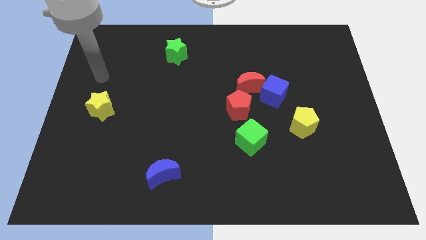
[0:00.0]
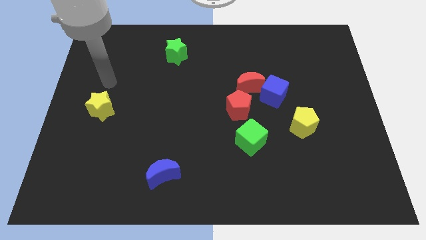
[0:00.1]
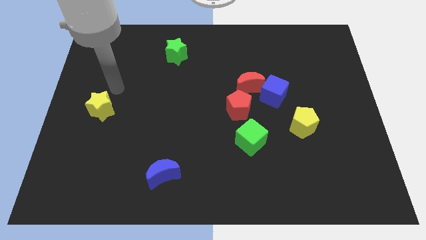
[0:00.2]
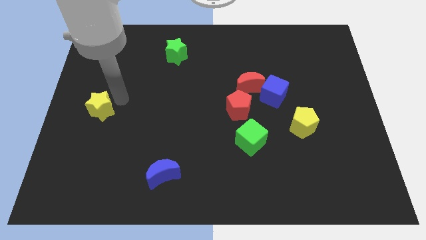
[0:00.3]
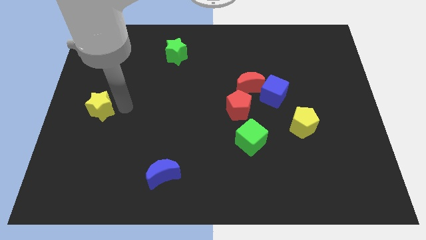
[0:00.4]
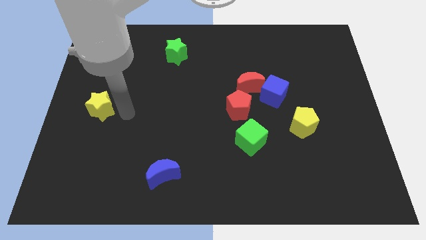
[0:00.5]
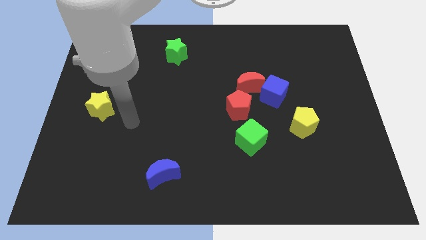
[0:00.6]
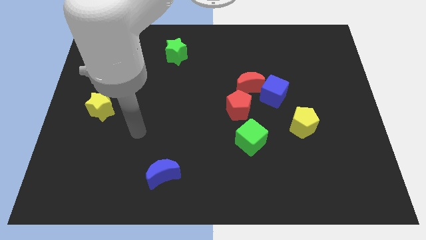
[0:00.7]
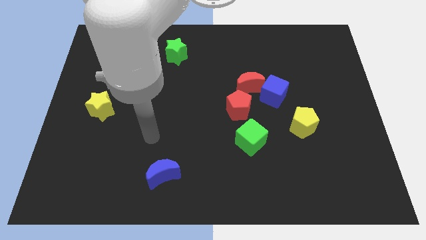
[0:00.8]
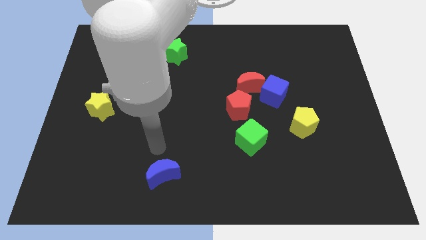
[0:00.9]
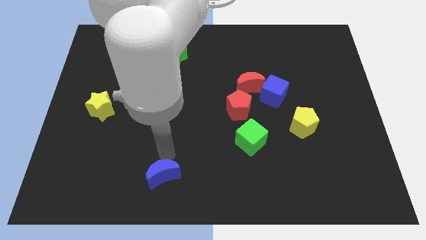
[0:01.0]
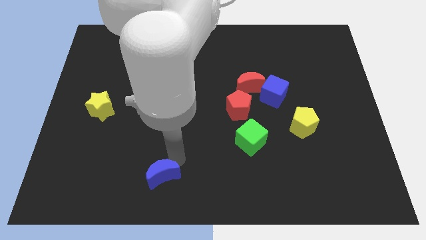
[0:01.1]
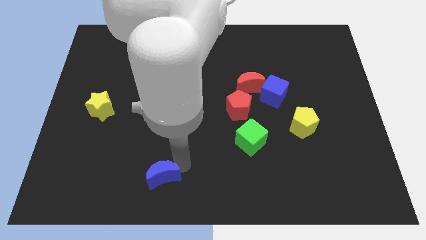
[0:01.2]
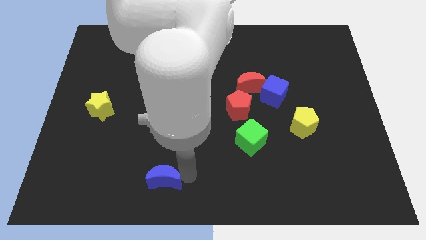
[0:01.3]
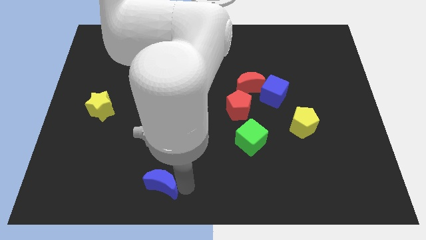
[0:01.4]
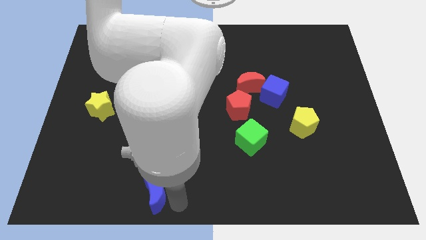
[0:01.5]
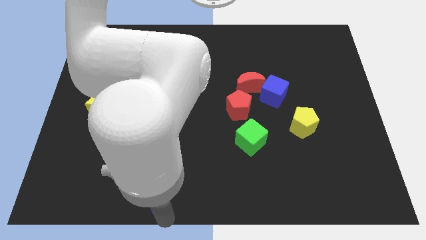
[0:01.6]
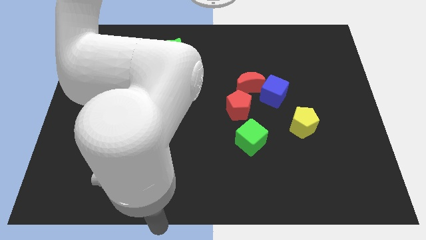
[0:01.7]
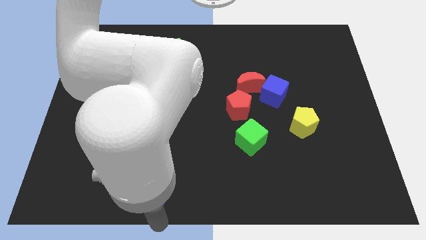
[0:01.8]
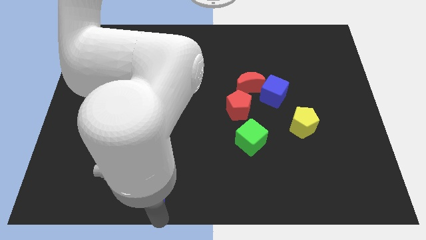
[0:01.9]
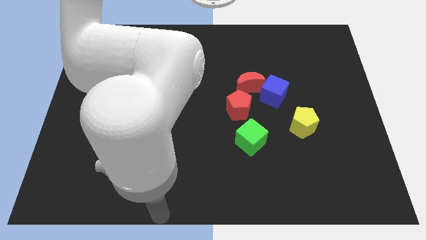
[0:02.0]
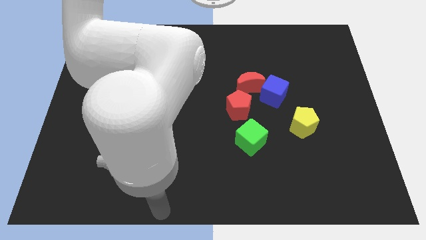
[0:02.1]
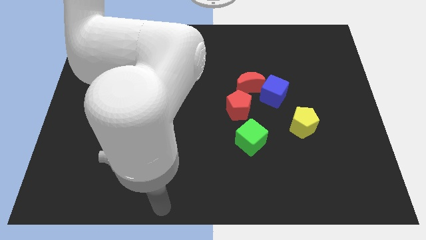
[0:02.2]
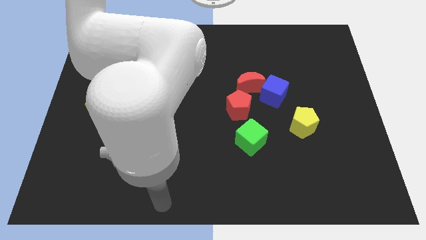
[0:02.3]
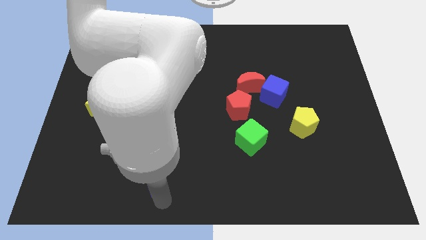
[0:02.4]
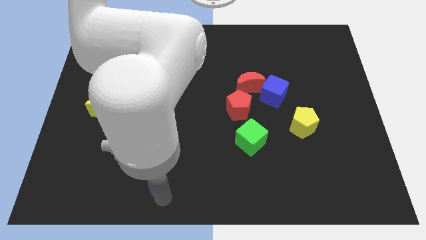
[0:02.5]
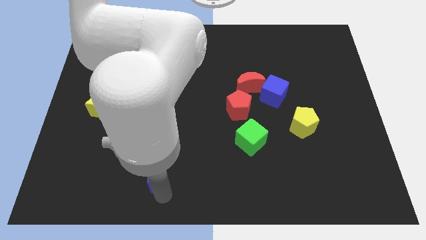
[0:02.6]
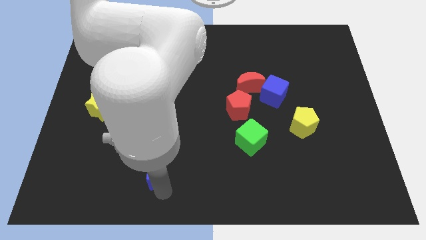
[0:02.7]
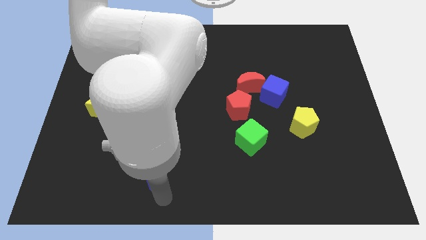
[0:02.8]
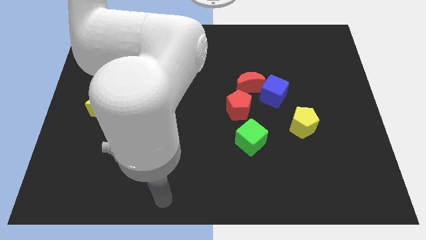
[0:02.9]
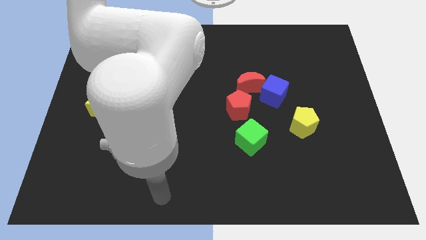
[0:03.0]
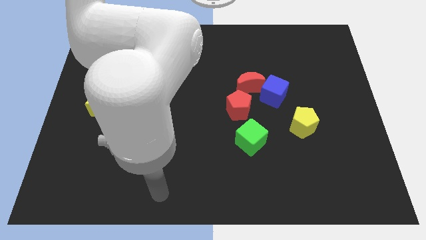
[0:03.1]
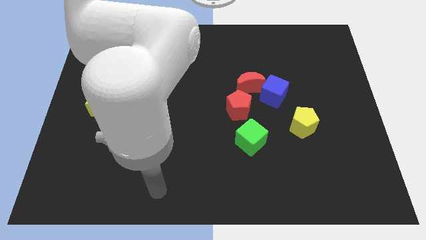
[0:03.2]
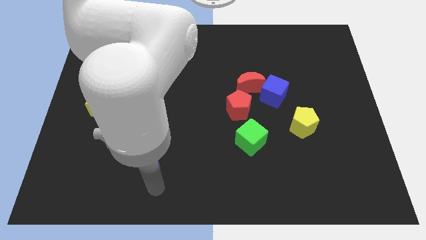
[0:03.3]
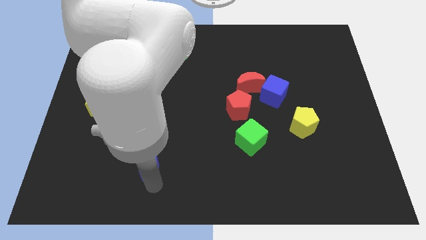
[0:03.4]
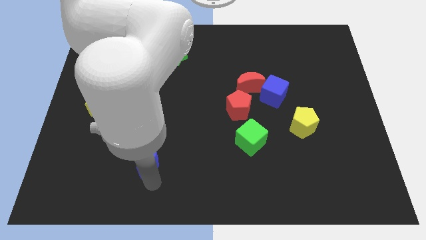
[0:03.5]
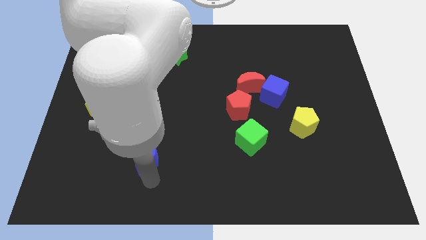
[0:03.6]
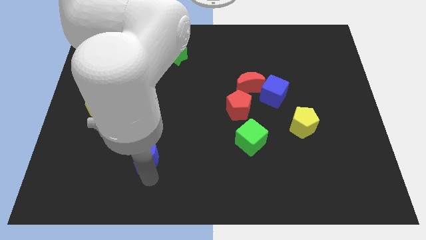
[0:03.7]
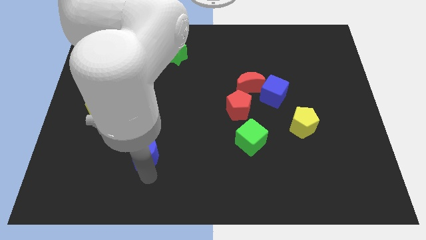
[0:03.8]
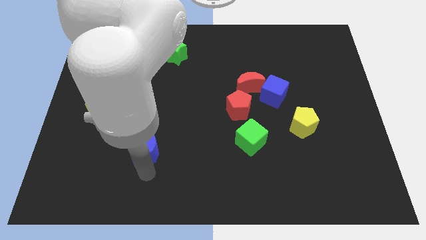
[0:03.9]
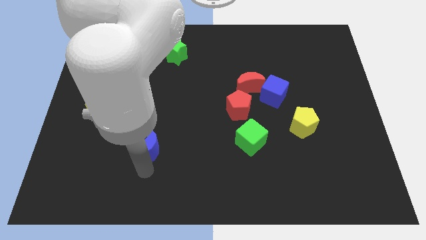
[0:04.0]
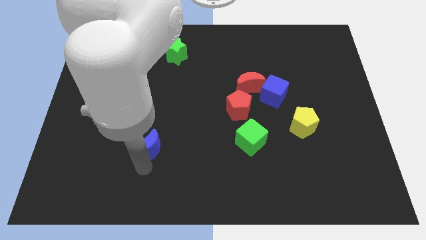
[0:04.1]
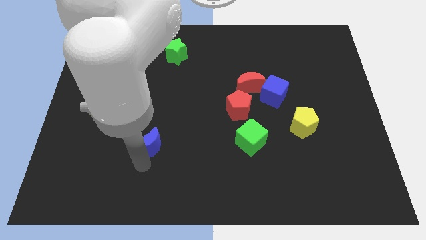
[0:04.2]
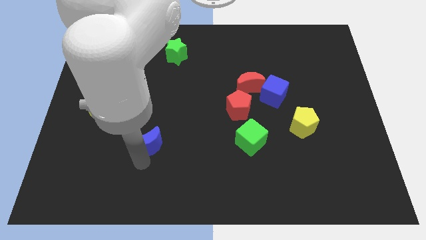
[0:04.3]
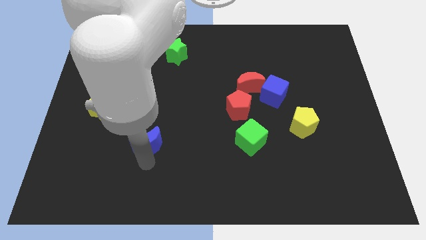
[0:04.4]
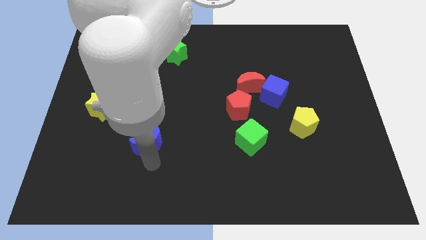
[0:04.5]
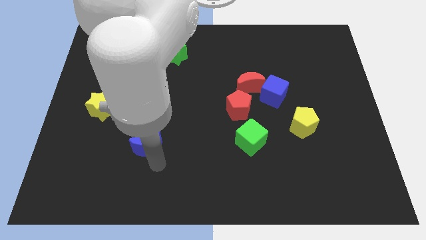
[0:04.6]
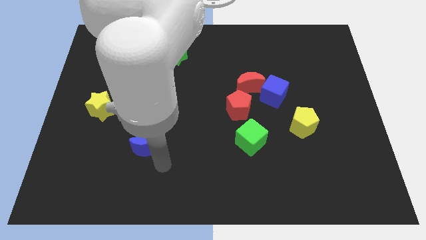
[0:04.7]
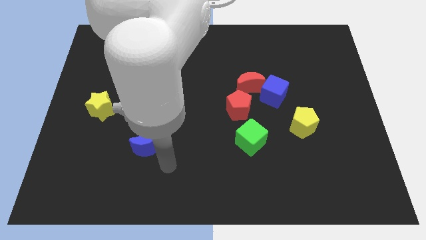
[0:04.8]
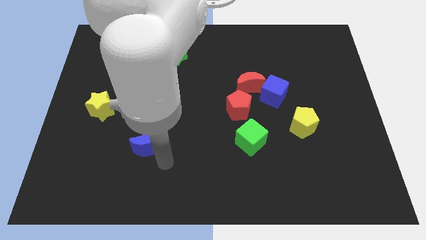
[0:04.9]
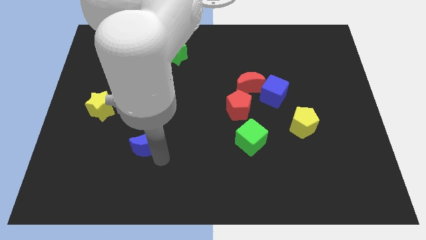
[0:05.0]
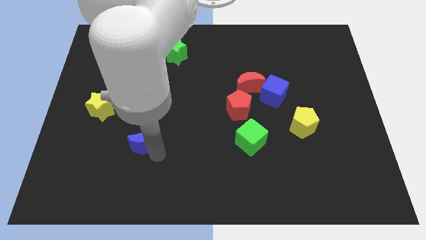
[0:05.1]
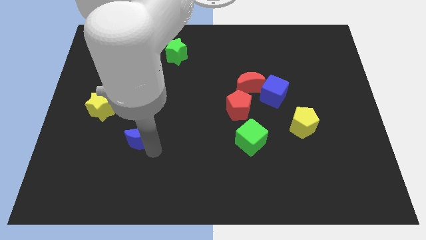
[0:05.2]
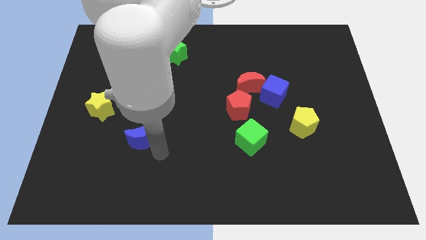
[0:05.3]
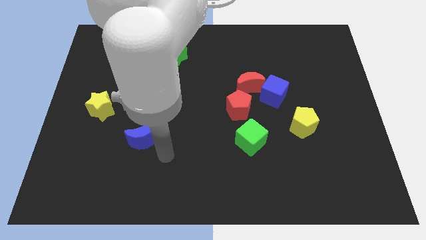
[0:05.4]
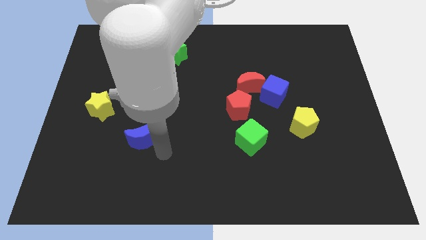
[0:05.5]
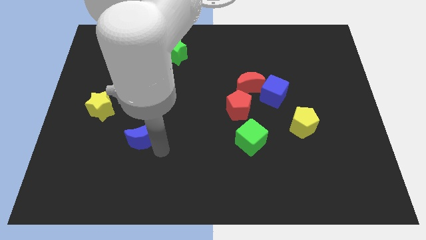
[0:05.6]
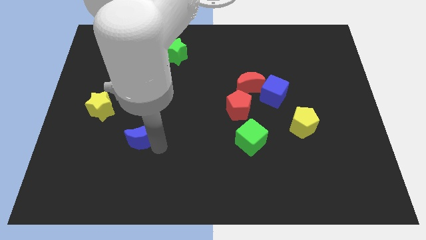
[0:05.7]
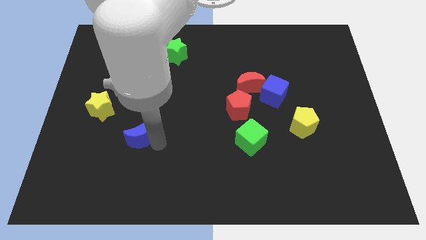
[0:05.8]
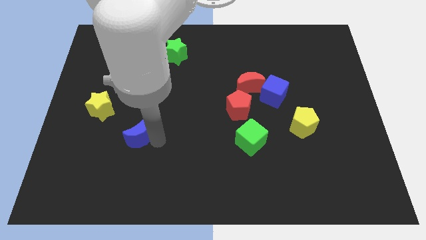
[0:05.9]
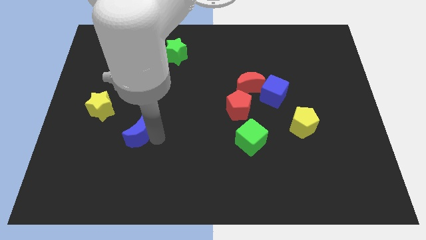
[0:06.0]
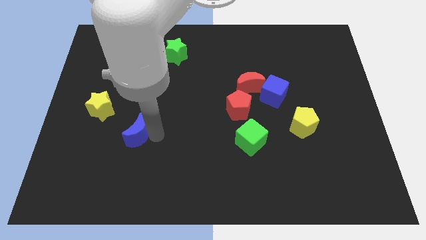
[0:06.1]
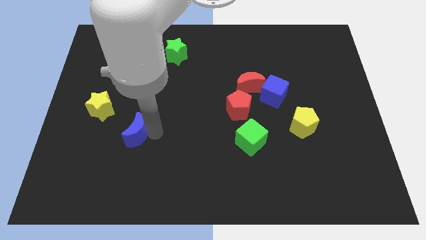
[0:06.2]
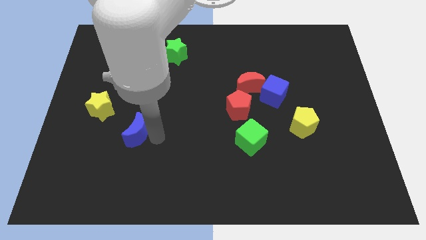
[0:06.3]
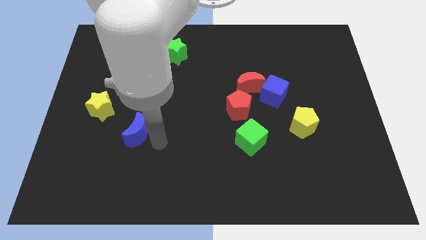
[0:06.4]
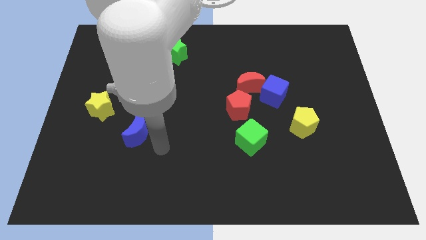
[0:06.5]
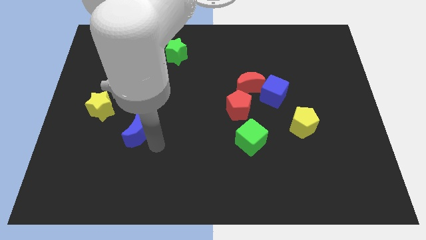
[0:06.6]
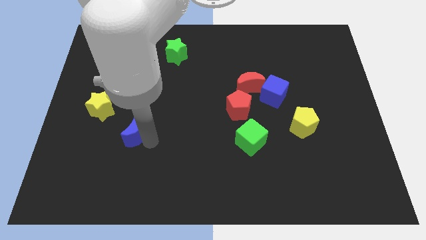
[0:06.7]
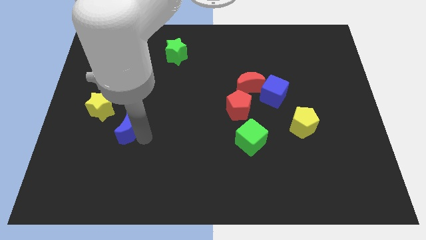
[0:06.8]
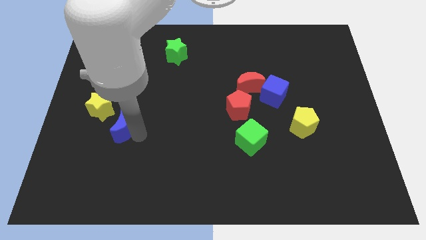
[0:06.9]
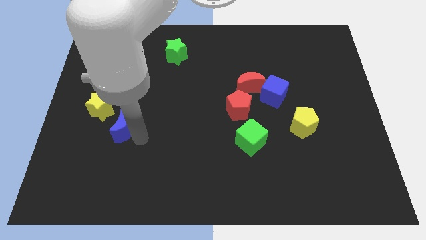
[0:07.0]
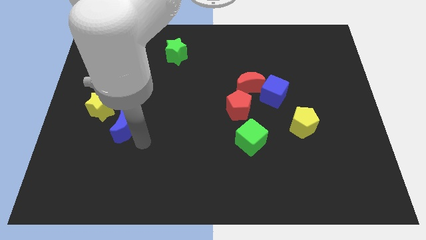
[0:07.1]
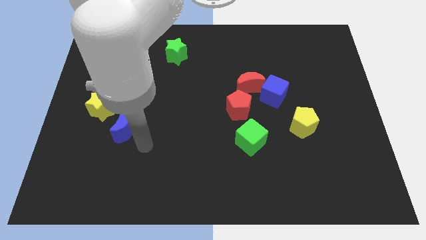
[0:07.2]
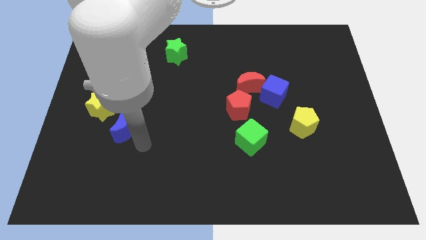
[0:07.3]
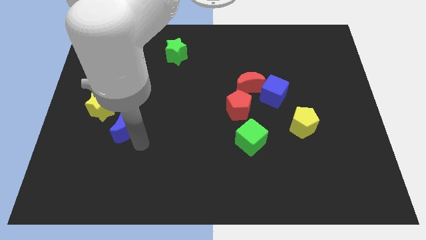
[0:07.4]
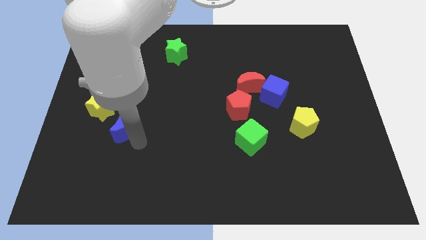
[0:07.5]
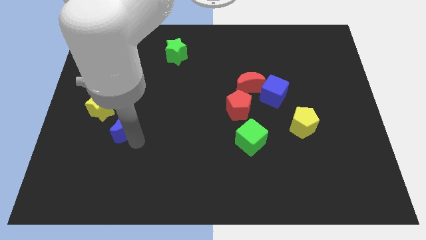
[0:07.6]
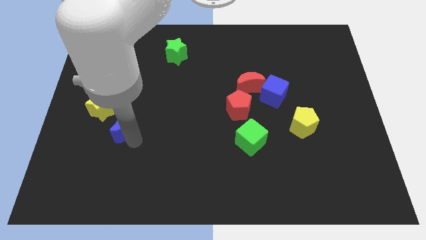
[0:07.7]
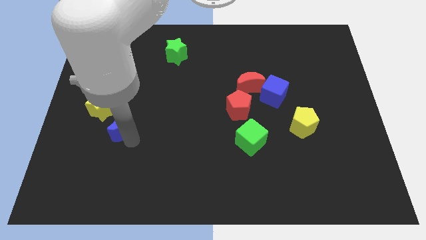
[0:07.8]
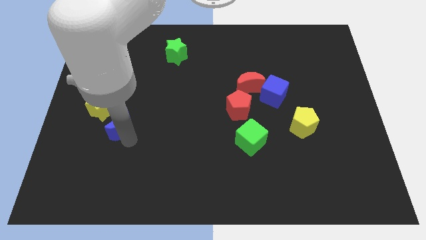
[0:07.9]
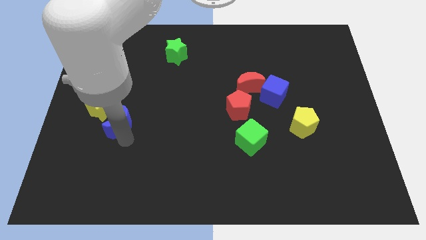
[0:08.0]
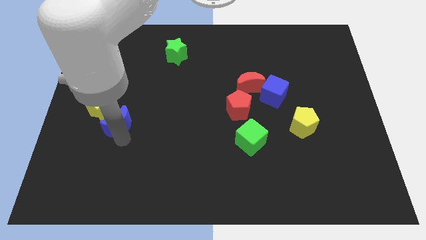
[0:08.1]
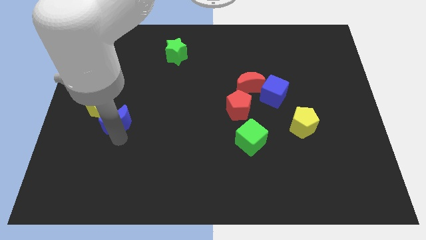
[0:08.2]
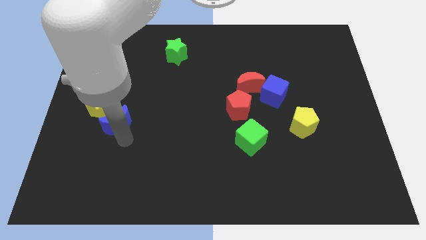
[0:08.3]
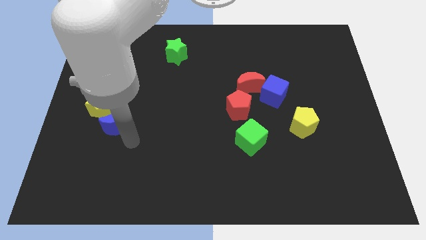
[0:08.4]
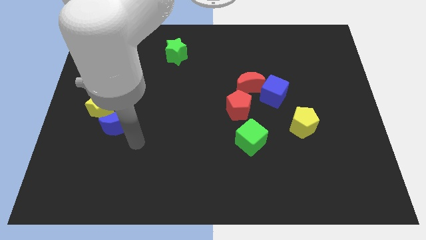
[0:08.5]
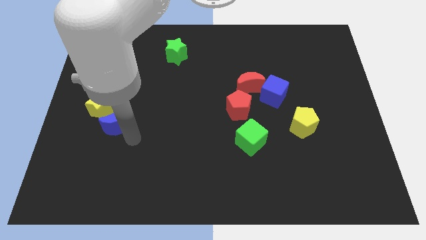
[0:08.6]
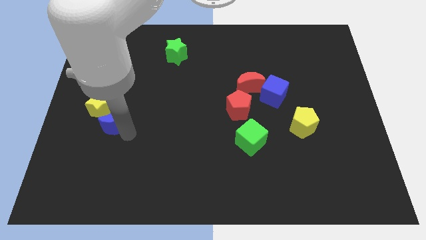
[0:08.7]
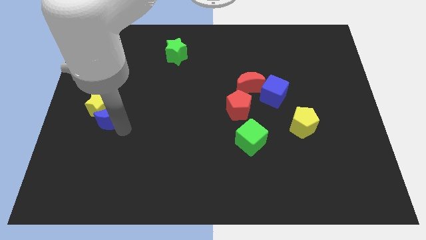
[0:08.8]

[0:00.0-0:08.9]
put the blue moon to the yellow star
